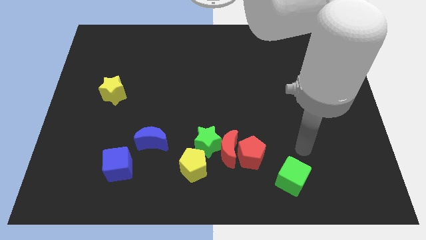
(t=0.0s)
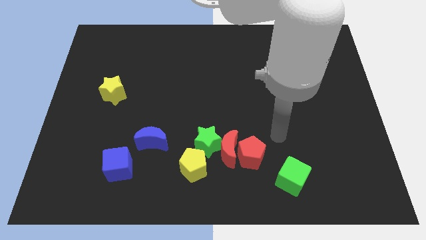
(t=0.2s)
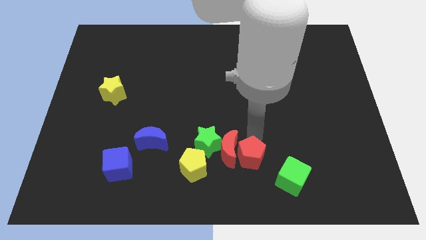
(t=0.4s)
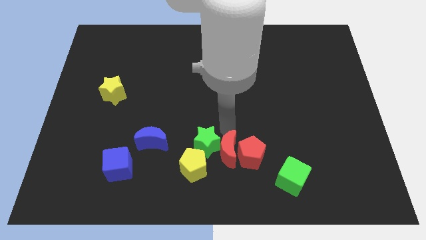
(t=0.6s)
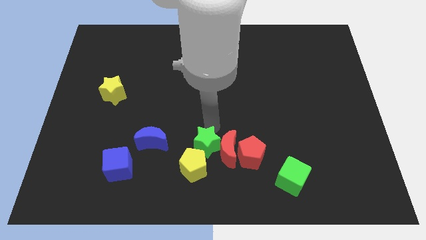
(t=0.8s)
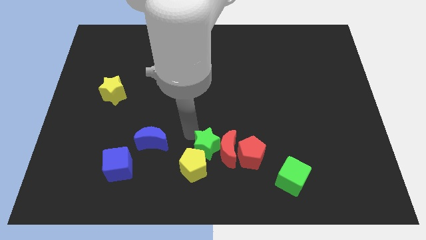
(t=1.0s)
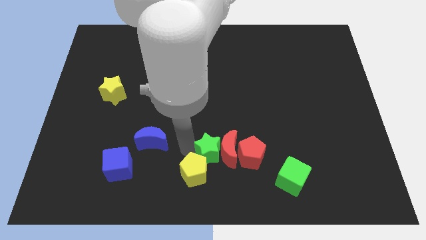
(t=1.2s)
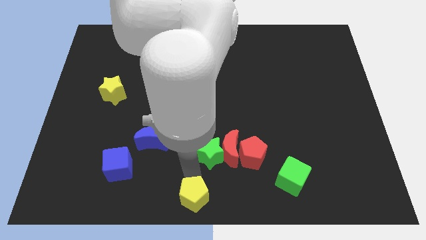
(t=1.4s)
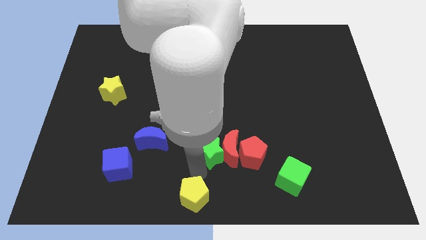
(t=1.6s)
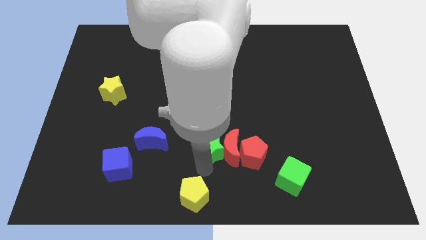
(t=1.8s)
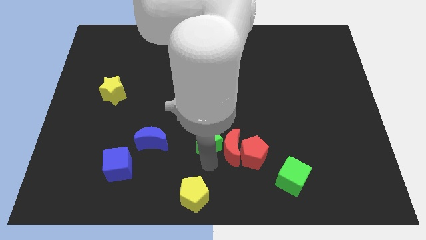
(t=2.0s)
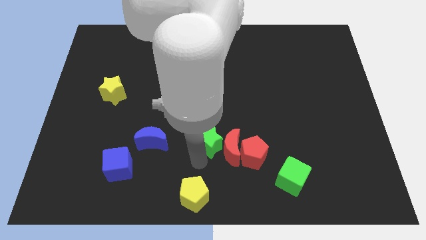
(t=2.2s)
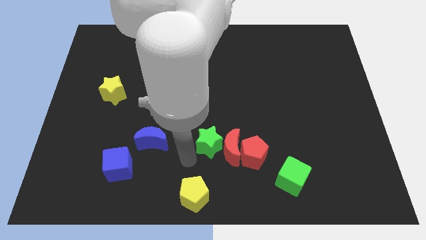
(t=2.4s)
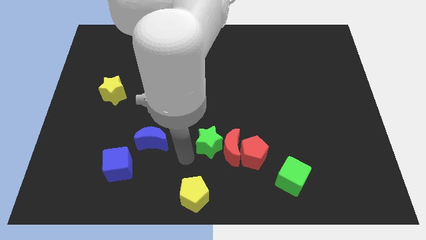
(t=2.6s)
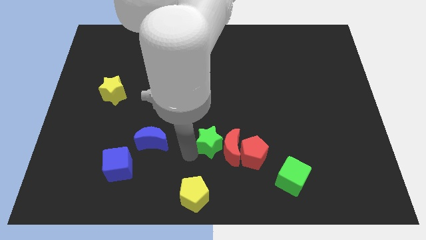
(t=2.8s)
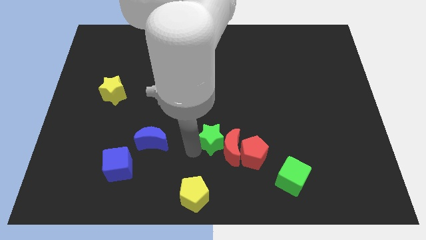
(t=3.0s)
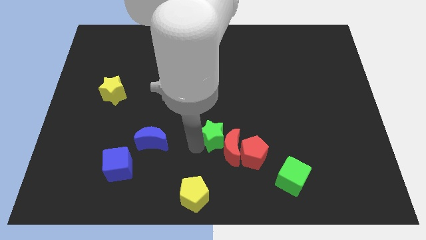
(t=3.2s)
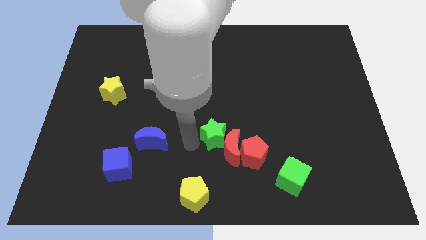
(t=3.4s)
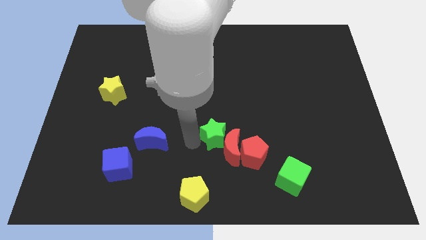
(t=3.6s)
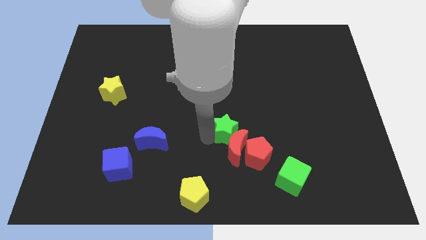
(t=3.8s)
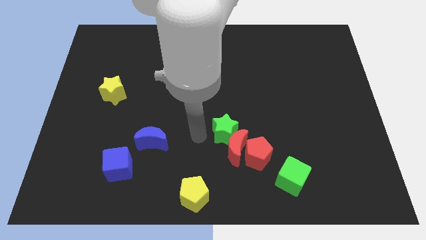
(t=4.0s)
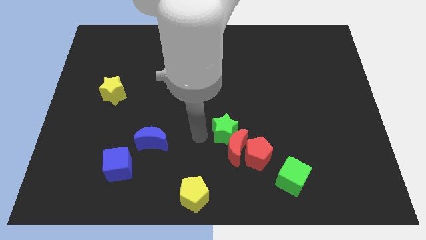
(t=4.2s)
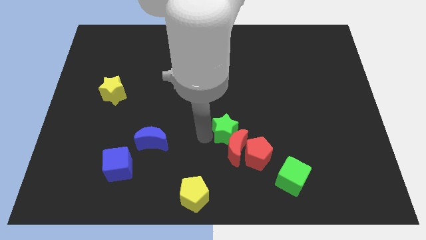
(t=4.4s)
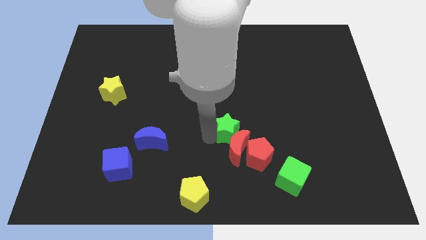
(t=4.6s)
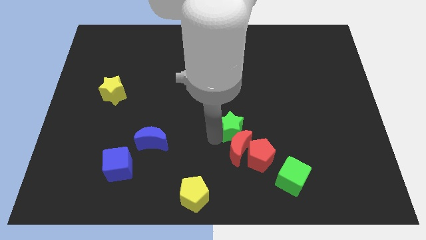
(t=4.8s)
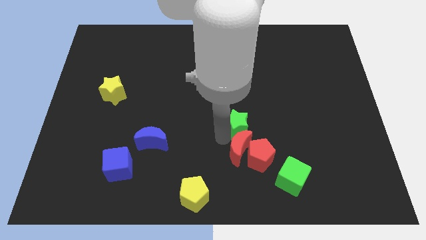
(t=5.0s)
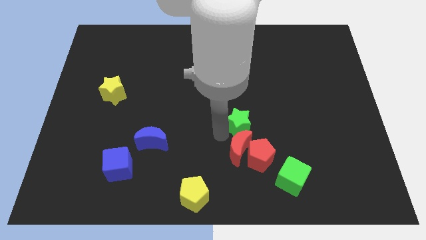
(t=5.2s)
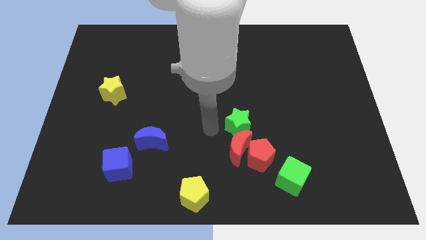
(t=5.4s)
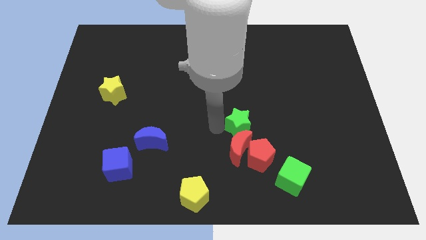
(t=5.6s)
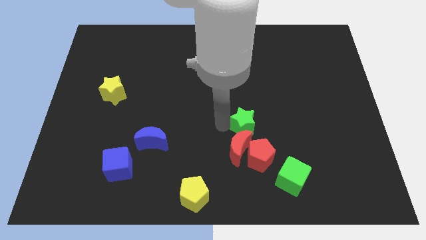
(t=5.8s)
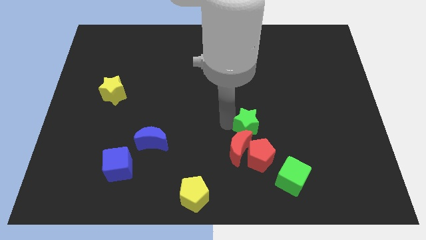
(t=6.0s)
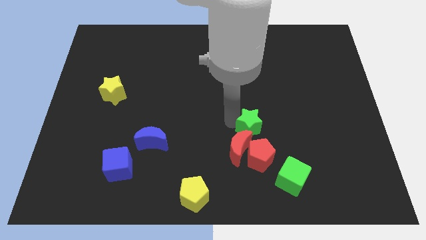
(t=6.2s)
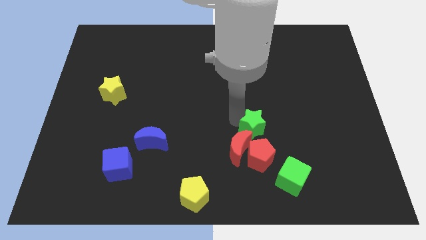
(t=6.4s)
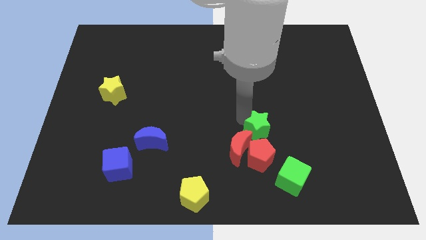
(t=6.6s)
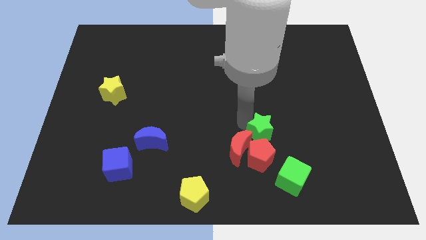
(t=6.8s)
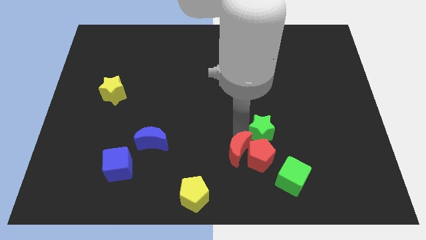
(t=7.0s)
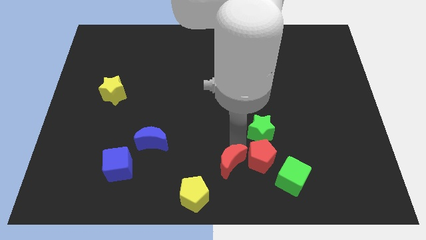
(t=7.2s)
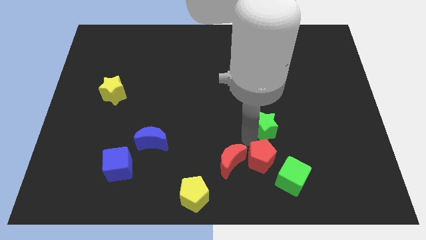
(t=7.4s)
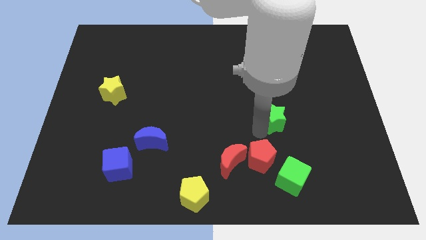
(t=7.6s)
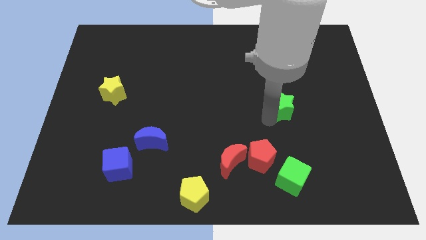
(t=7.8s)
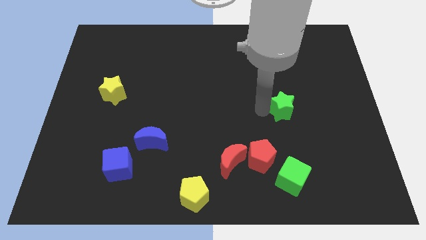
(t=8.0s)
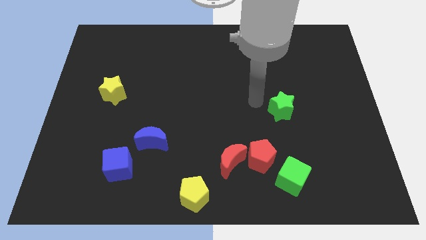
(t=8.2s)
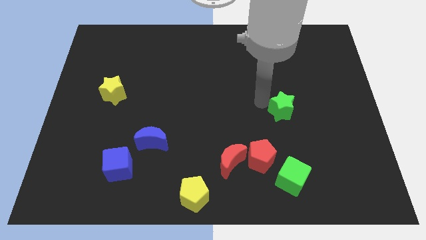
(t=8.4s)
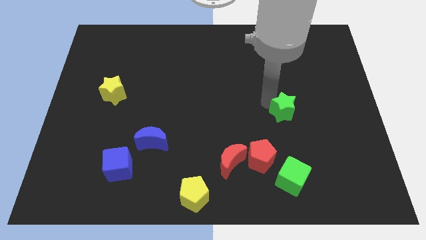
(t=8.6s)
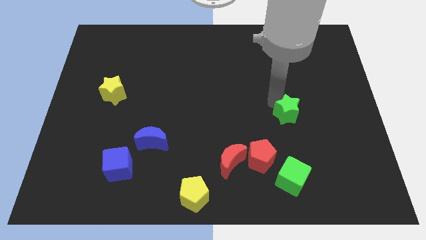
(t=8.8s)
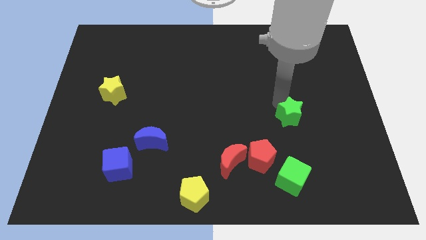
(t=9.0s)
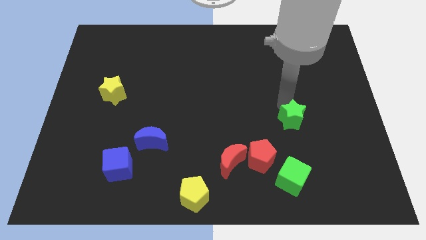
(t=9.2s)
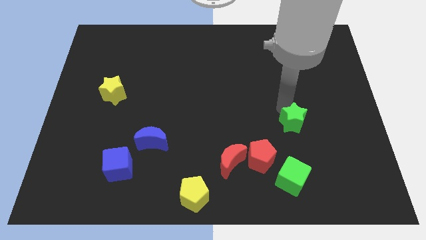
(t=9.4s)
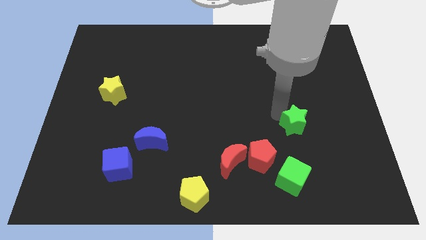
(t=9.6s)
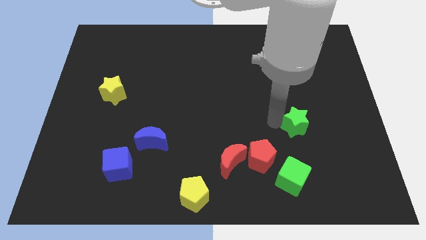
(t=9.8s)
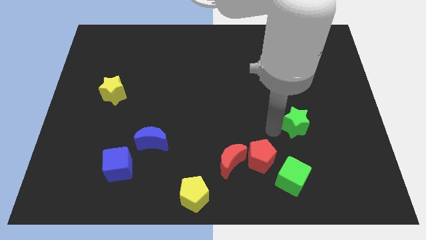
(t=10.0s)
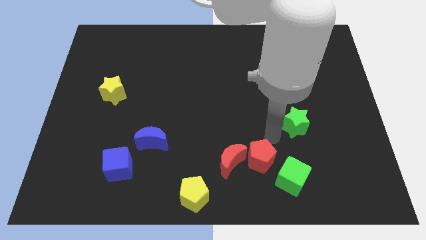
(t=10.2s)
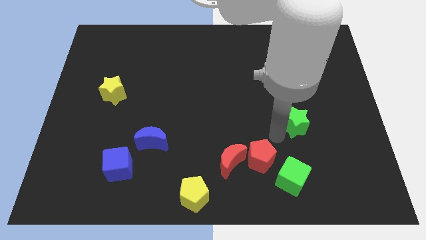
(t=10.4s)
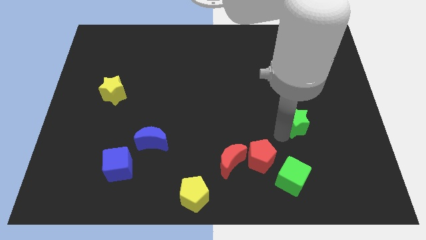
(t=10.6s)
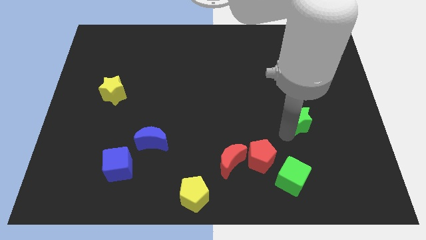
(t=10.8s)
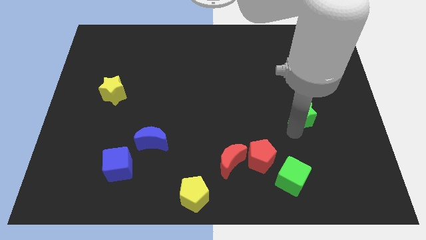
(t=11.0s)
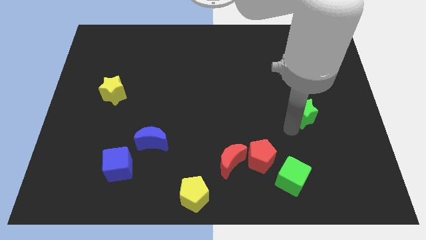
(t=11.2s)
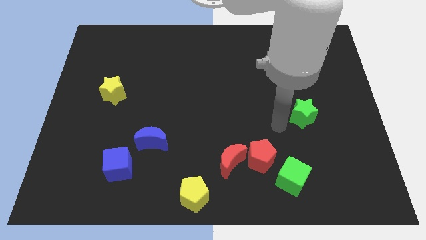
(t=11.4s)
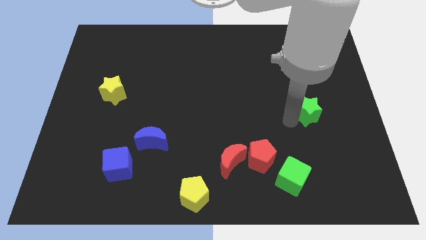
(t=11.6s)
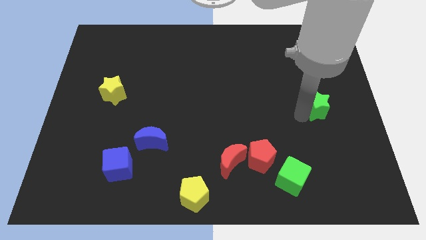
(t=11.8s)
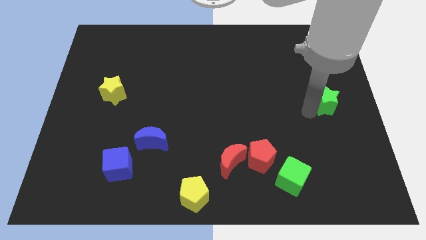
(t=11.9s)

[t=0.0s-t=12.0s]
move the green star to the center right

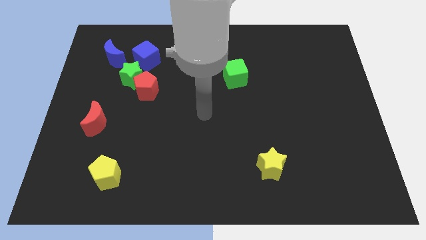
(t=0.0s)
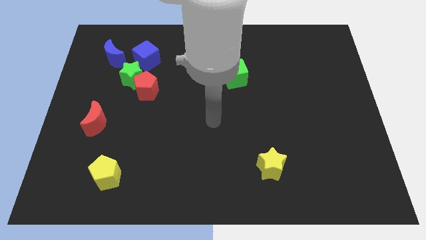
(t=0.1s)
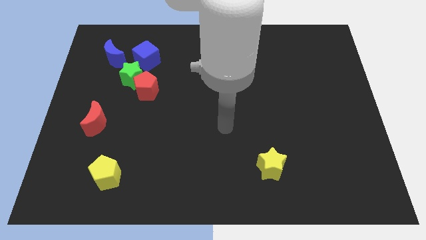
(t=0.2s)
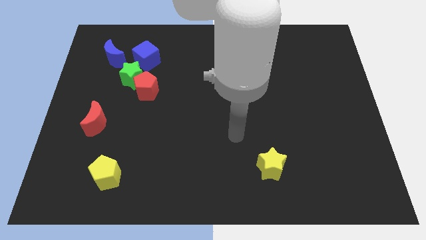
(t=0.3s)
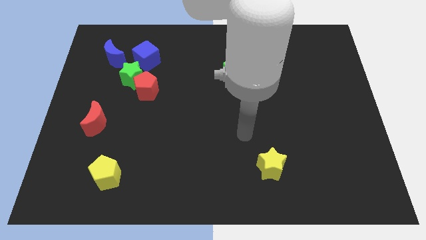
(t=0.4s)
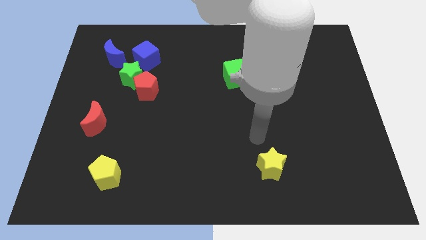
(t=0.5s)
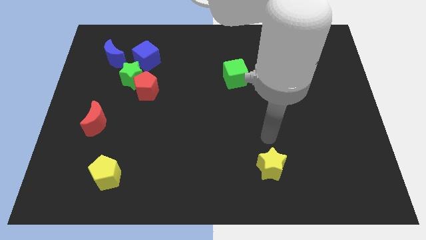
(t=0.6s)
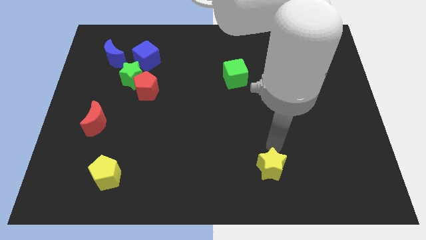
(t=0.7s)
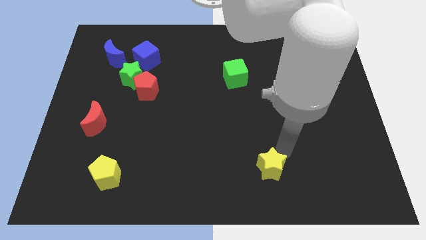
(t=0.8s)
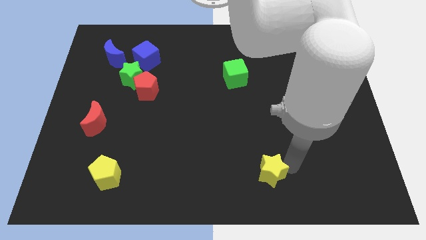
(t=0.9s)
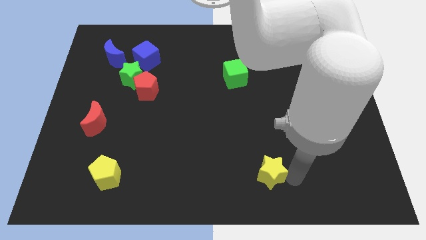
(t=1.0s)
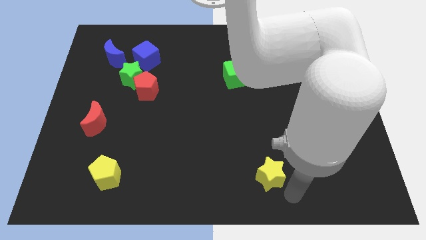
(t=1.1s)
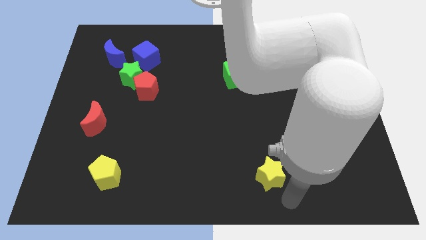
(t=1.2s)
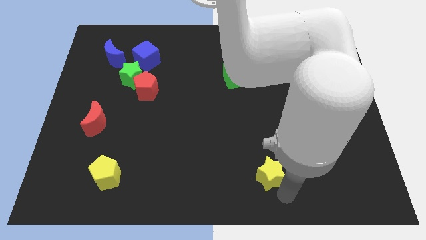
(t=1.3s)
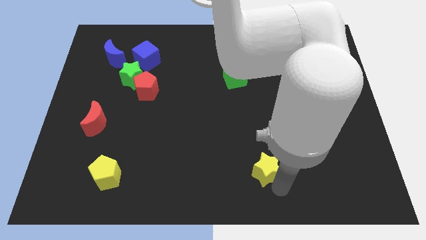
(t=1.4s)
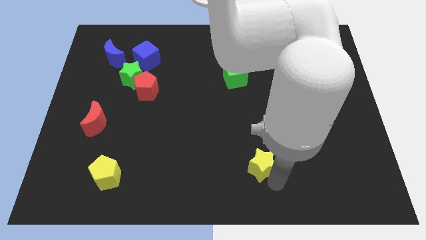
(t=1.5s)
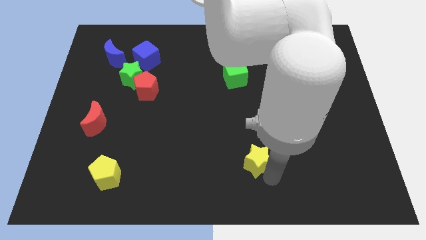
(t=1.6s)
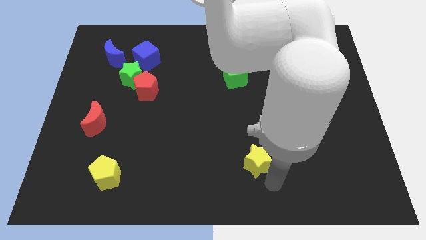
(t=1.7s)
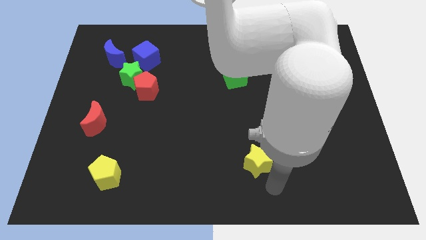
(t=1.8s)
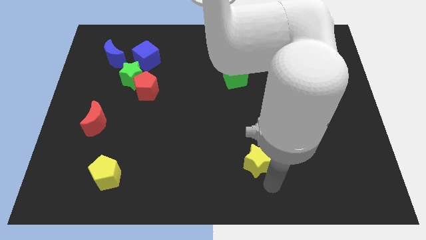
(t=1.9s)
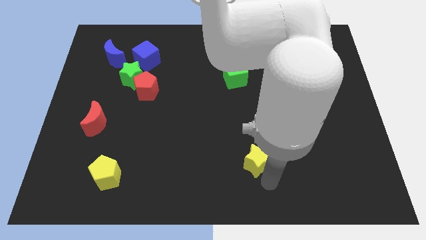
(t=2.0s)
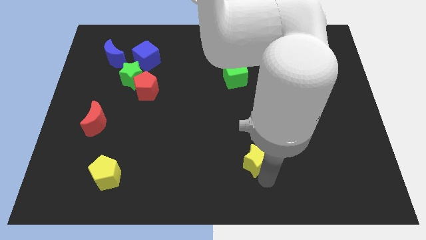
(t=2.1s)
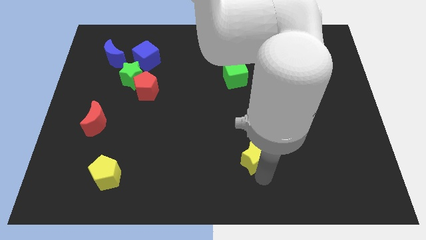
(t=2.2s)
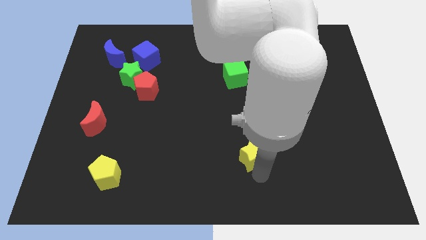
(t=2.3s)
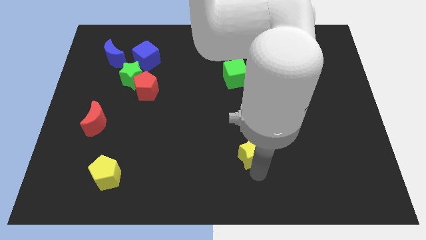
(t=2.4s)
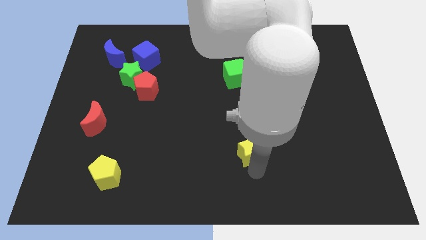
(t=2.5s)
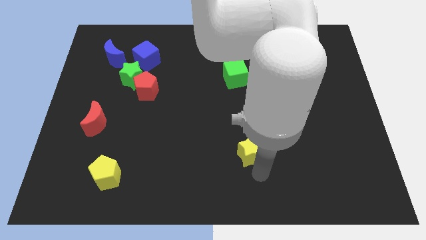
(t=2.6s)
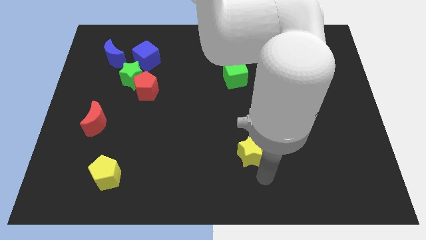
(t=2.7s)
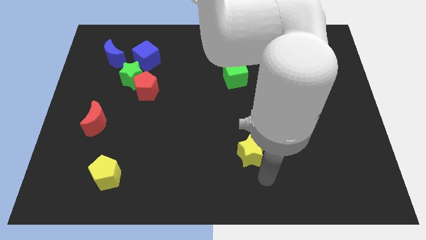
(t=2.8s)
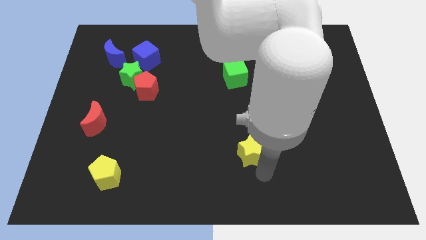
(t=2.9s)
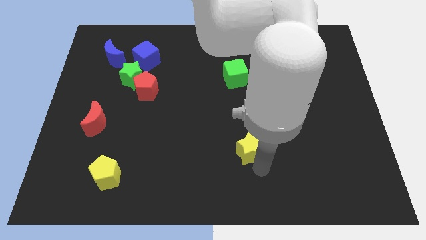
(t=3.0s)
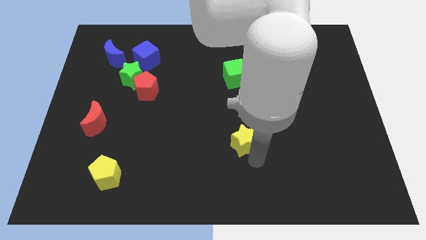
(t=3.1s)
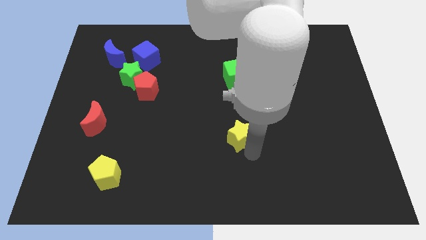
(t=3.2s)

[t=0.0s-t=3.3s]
push the yellow star to the center
